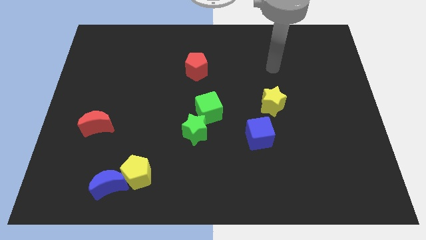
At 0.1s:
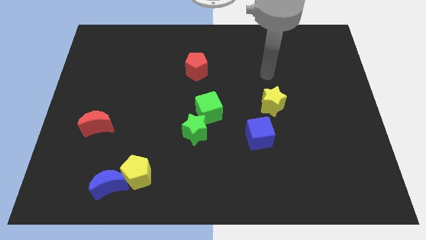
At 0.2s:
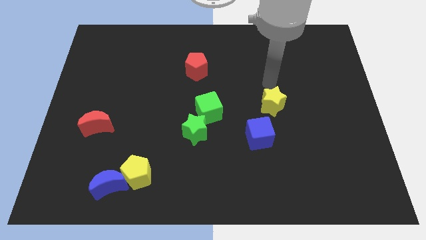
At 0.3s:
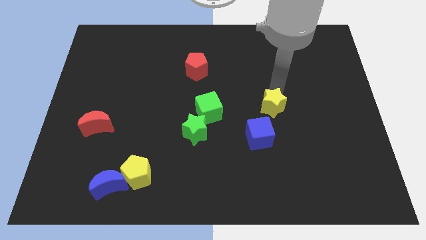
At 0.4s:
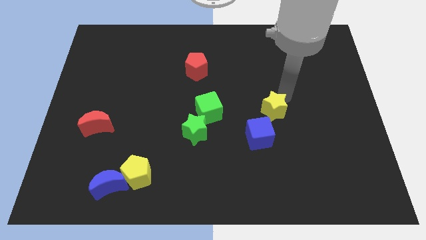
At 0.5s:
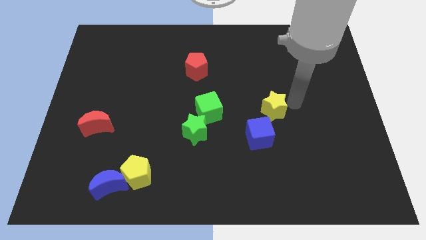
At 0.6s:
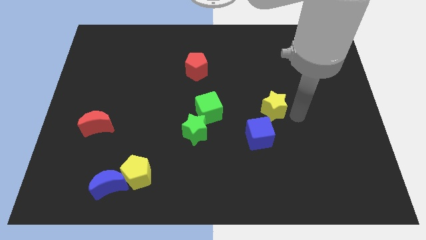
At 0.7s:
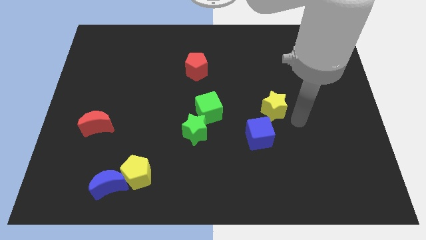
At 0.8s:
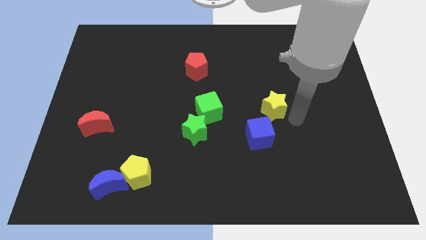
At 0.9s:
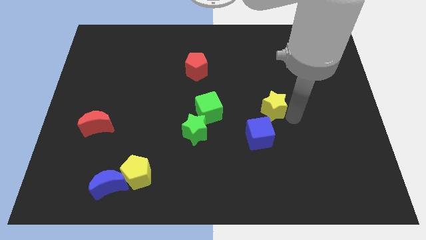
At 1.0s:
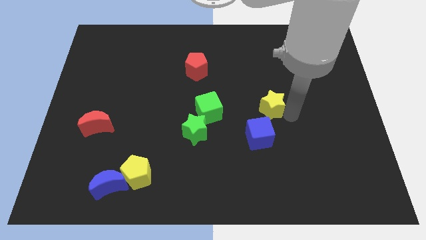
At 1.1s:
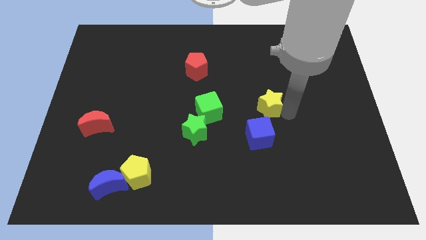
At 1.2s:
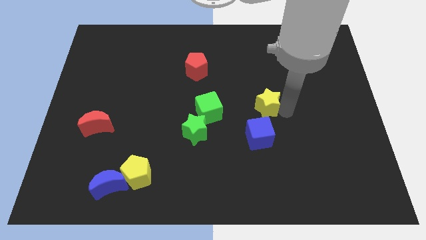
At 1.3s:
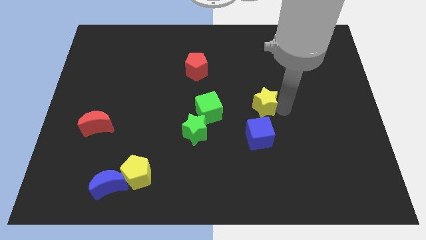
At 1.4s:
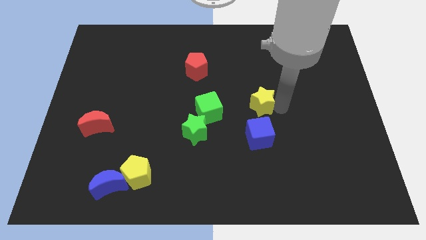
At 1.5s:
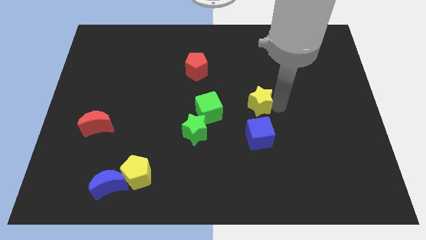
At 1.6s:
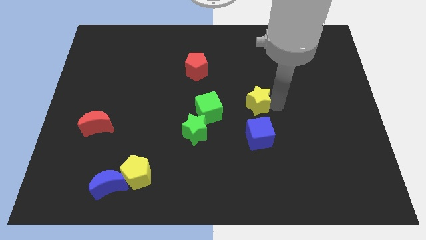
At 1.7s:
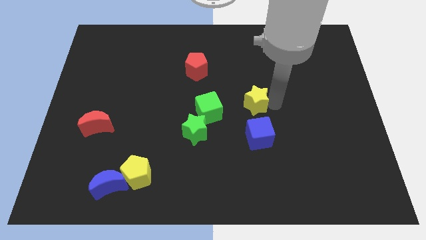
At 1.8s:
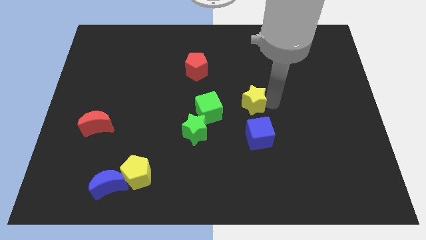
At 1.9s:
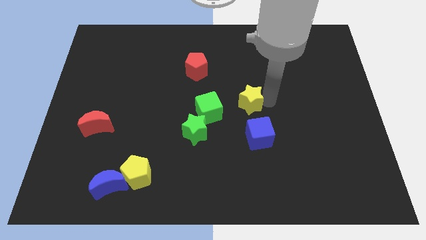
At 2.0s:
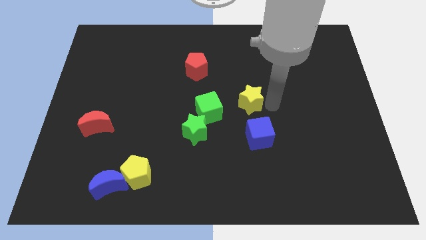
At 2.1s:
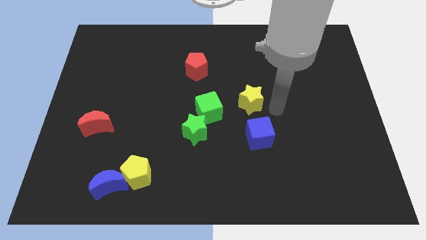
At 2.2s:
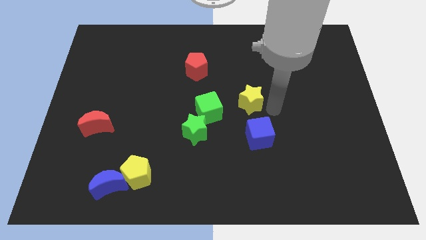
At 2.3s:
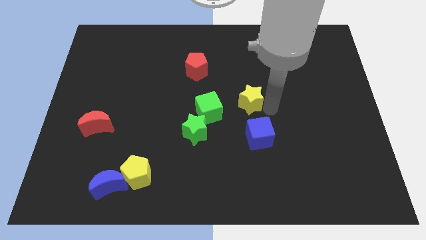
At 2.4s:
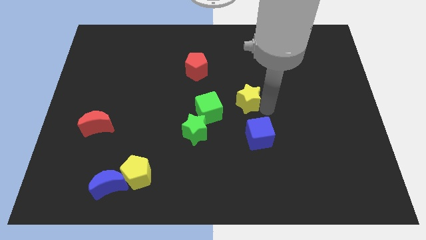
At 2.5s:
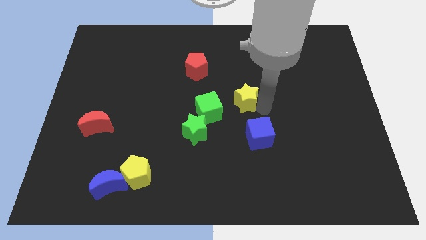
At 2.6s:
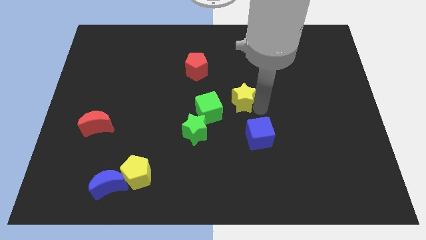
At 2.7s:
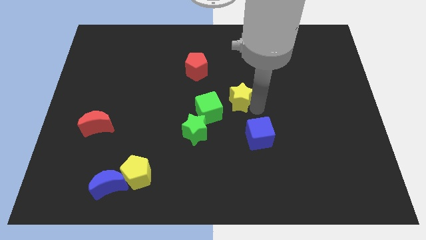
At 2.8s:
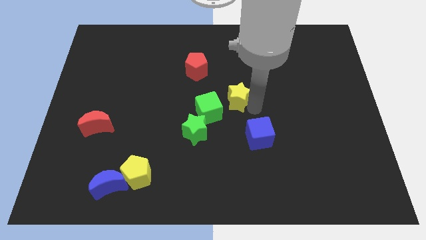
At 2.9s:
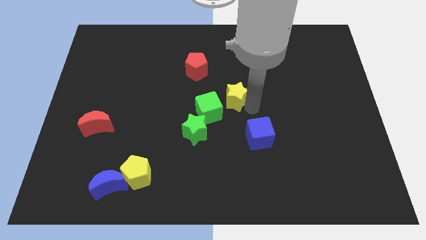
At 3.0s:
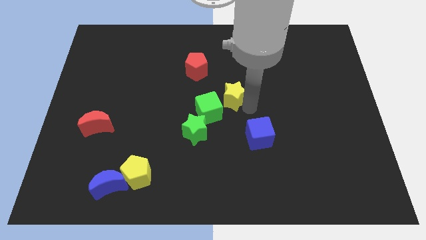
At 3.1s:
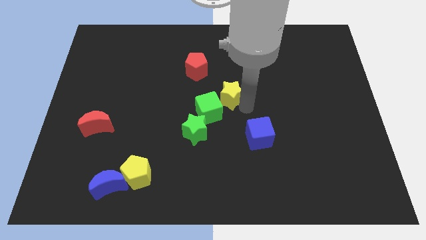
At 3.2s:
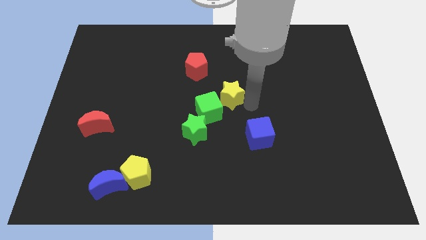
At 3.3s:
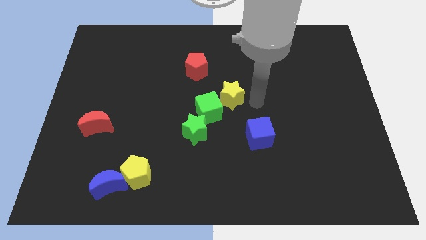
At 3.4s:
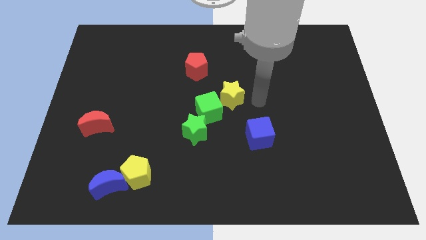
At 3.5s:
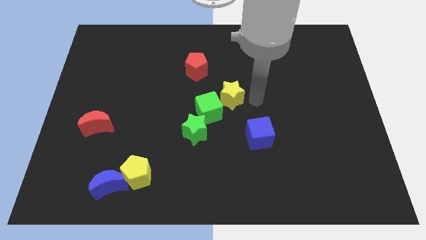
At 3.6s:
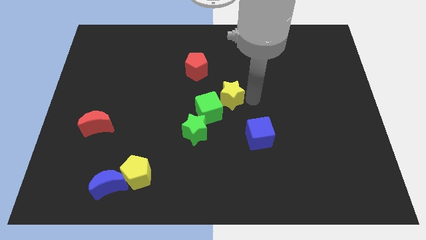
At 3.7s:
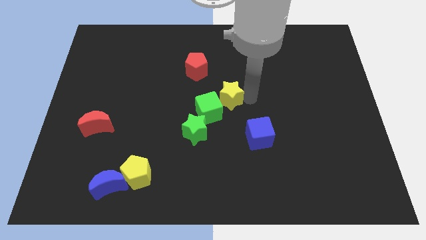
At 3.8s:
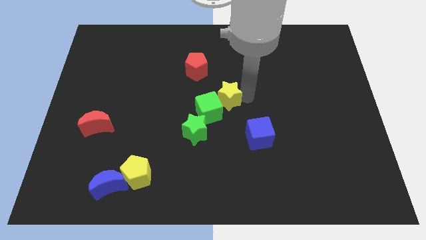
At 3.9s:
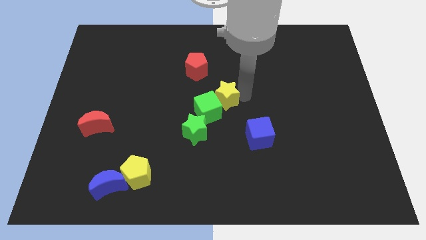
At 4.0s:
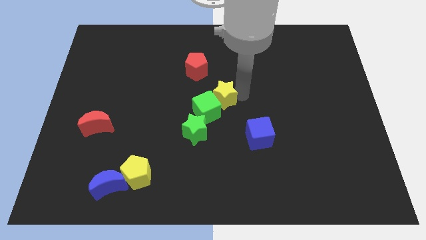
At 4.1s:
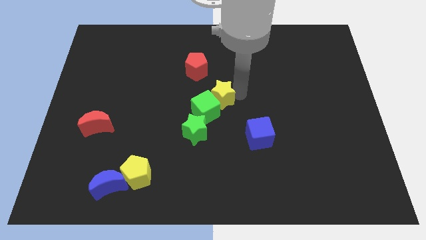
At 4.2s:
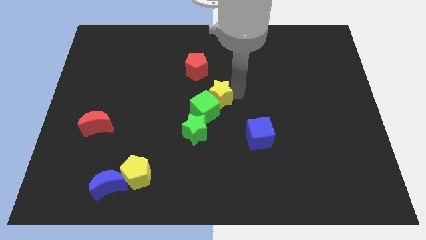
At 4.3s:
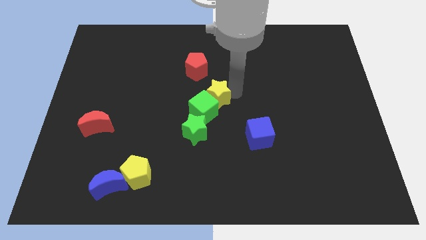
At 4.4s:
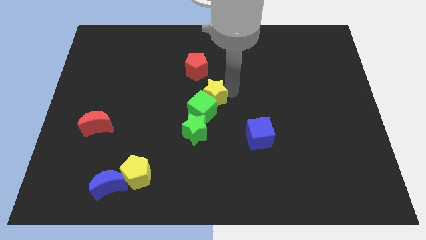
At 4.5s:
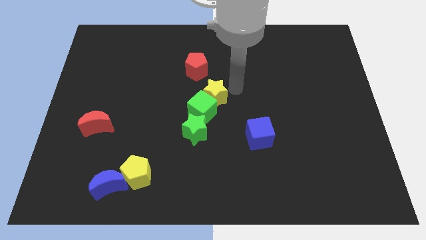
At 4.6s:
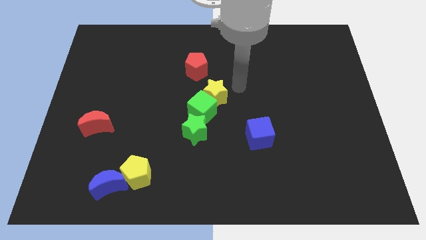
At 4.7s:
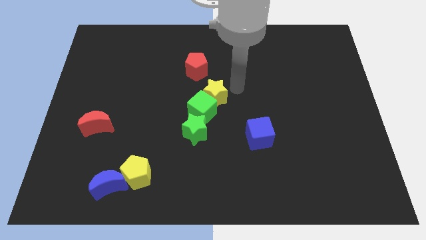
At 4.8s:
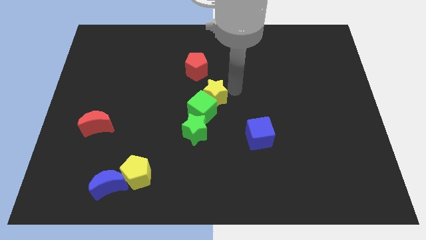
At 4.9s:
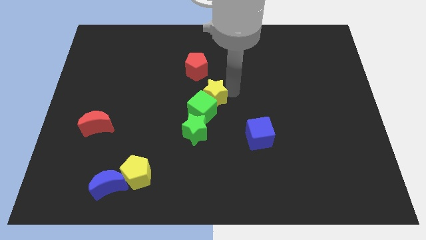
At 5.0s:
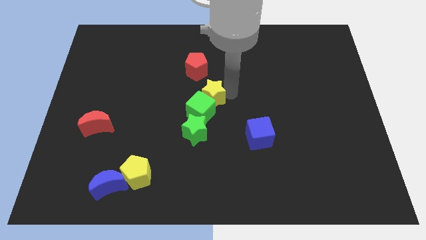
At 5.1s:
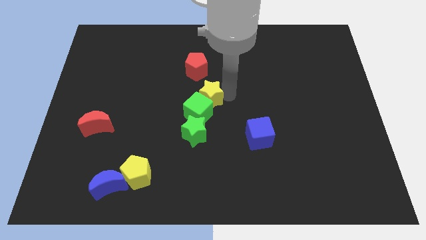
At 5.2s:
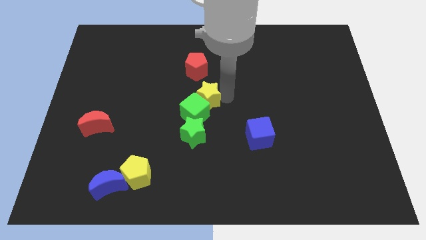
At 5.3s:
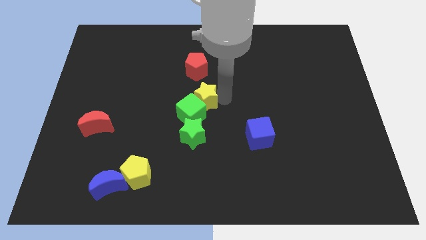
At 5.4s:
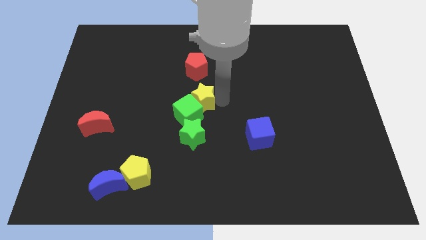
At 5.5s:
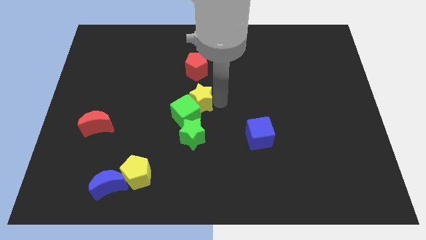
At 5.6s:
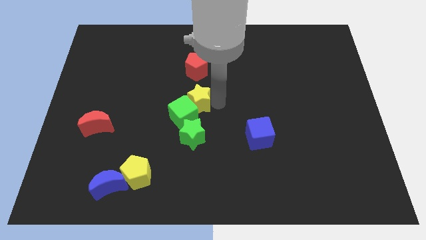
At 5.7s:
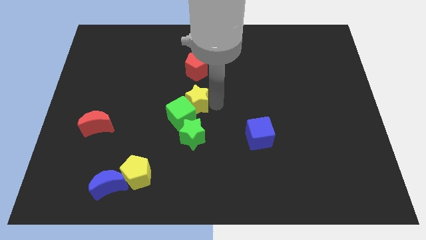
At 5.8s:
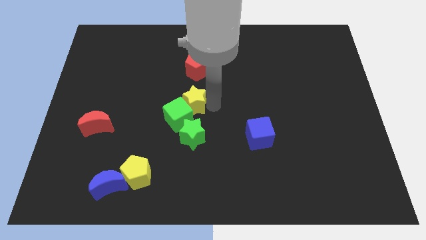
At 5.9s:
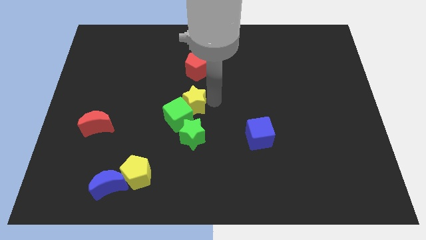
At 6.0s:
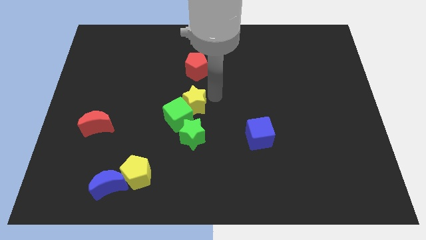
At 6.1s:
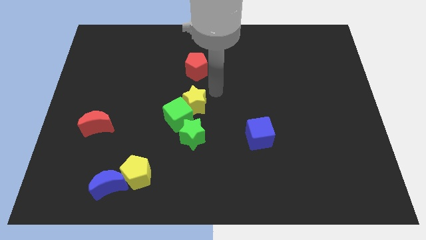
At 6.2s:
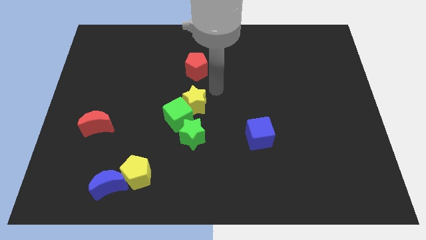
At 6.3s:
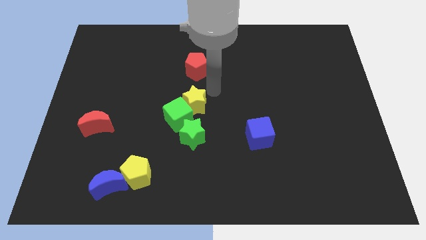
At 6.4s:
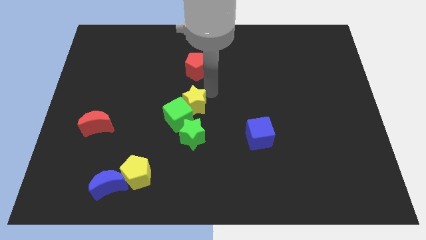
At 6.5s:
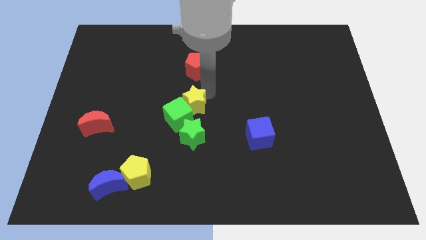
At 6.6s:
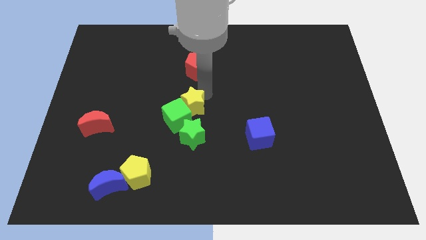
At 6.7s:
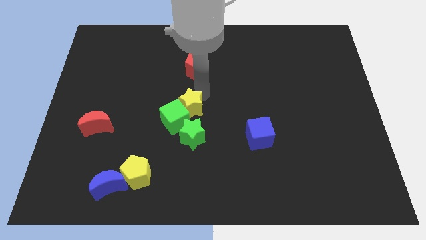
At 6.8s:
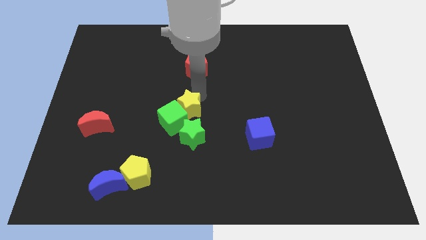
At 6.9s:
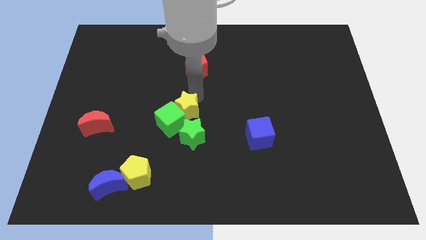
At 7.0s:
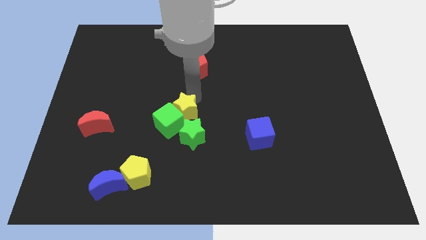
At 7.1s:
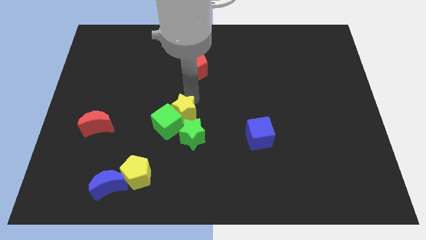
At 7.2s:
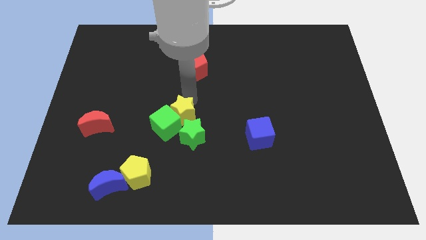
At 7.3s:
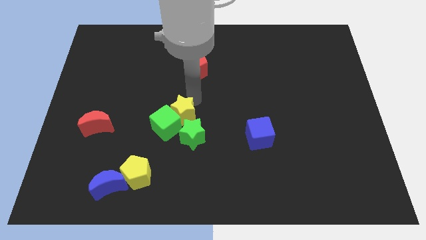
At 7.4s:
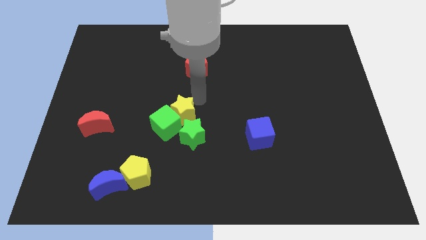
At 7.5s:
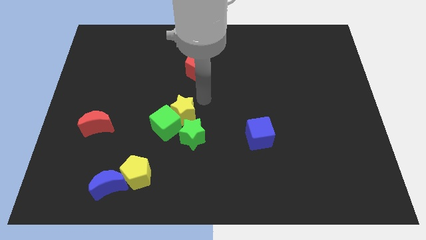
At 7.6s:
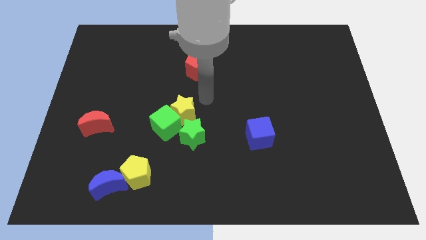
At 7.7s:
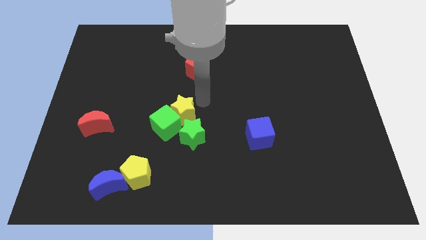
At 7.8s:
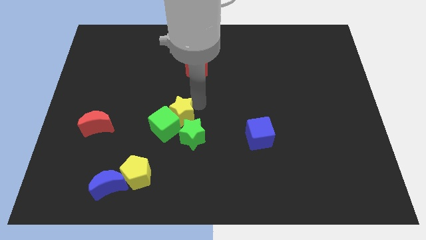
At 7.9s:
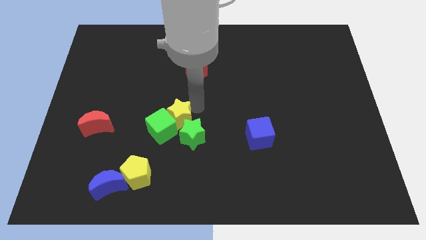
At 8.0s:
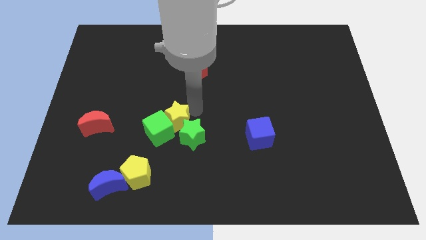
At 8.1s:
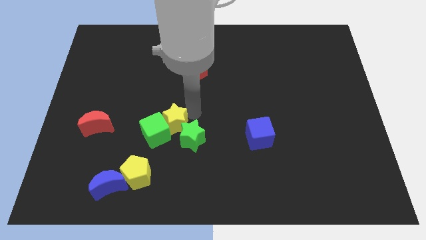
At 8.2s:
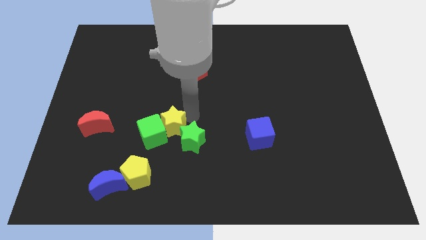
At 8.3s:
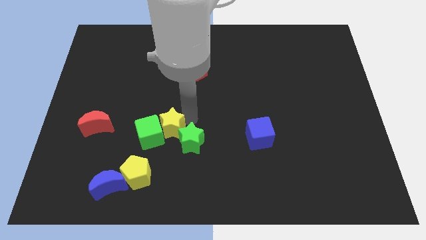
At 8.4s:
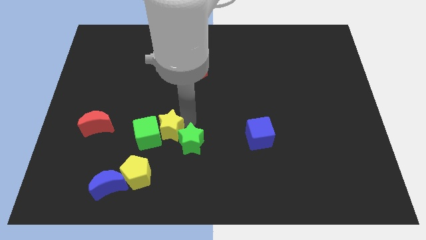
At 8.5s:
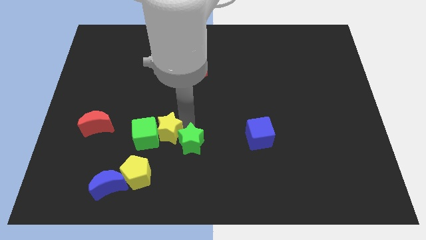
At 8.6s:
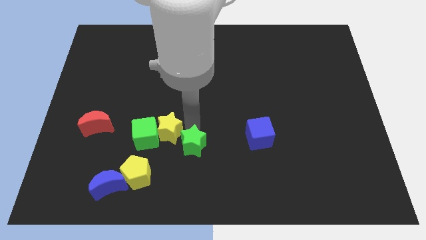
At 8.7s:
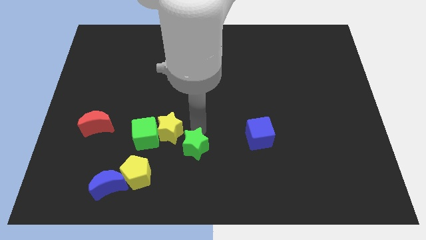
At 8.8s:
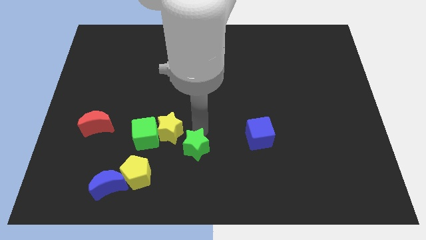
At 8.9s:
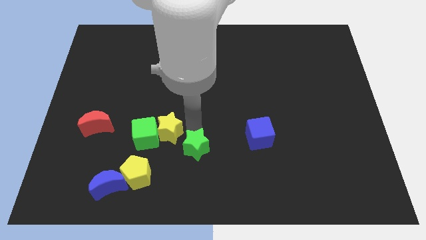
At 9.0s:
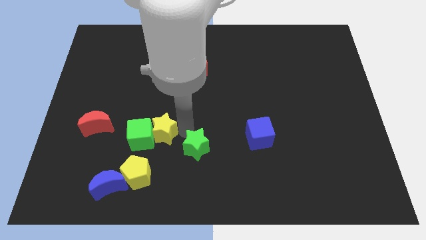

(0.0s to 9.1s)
slide the yellow star to the top side of the yellow pentagon
